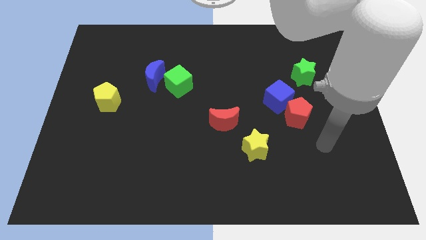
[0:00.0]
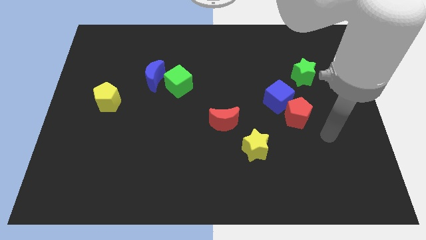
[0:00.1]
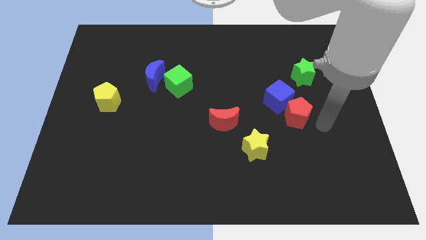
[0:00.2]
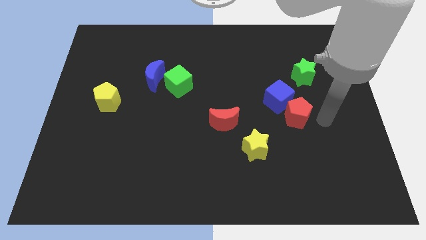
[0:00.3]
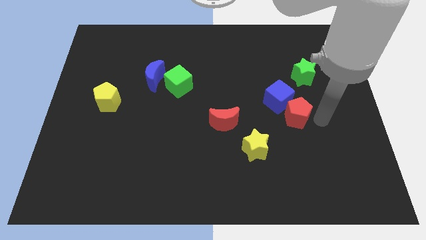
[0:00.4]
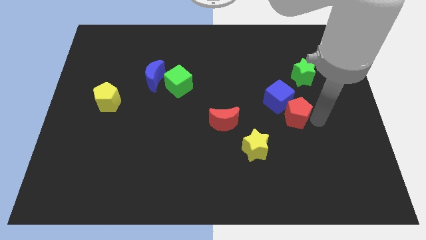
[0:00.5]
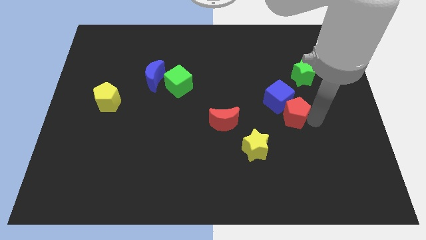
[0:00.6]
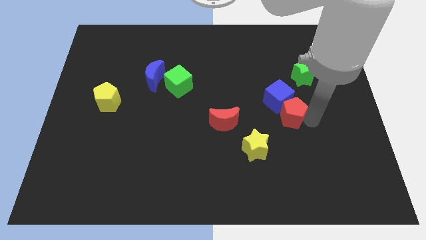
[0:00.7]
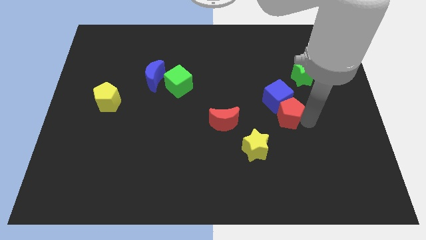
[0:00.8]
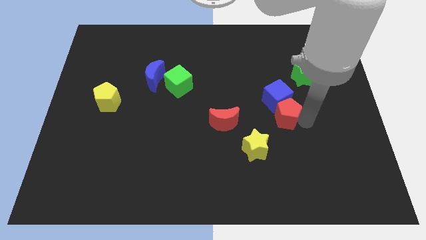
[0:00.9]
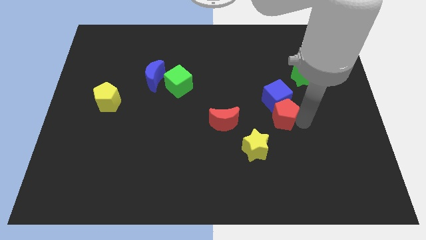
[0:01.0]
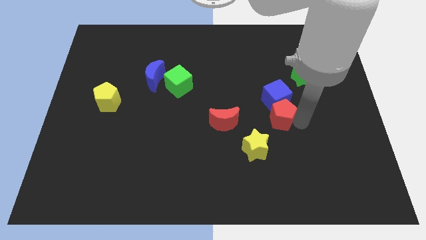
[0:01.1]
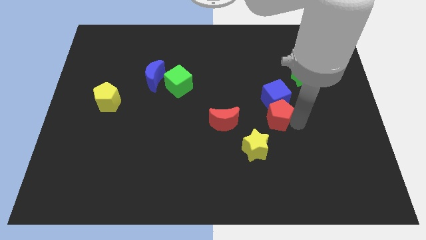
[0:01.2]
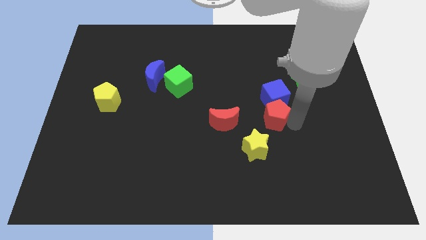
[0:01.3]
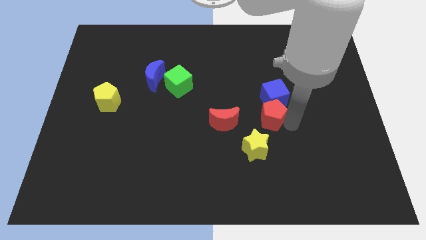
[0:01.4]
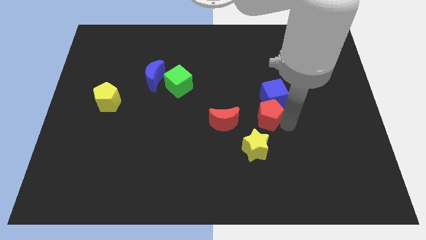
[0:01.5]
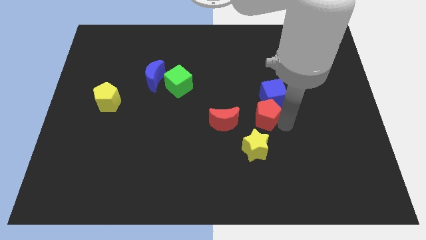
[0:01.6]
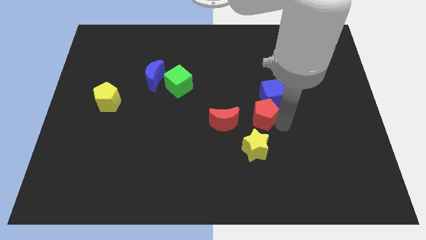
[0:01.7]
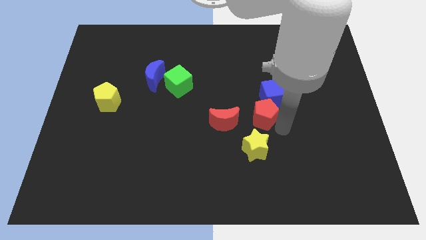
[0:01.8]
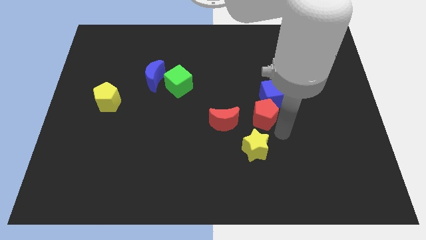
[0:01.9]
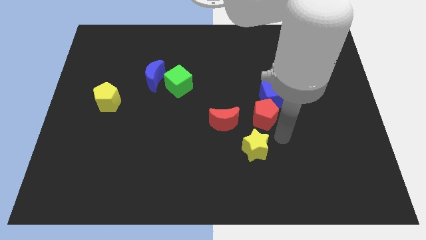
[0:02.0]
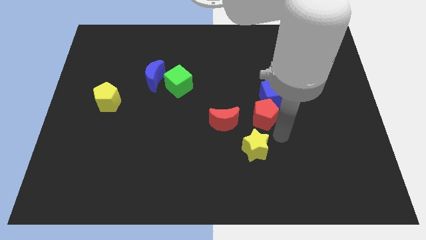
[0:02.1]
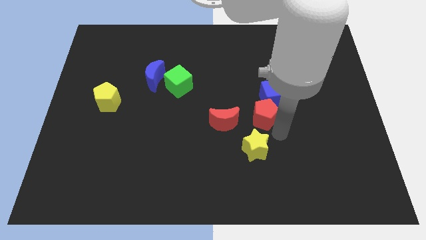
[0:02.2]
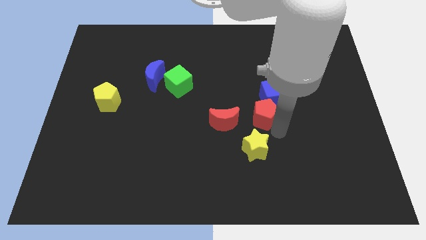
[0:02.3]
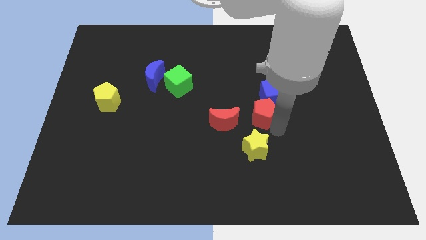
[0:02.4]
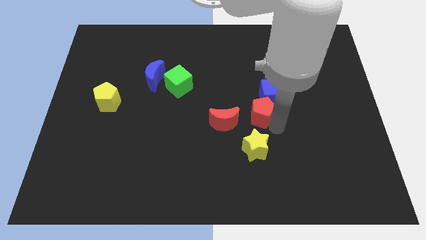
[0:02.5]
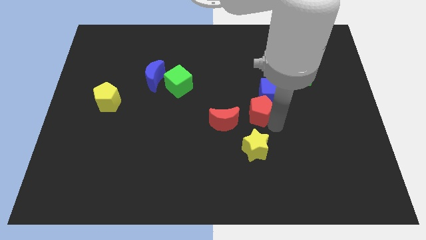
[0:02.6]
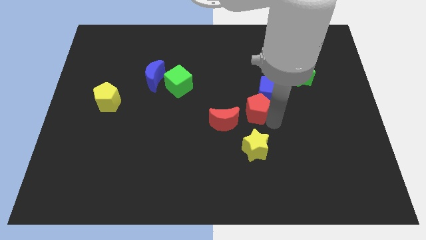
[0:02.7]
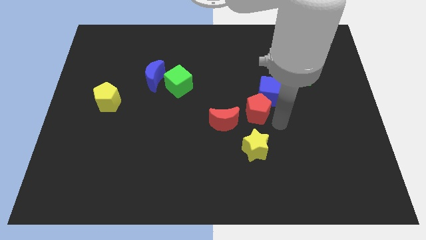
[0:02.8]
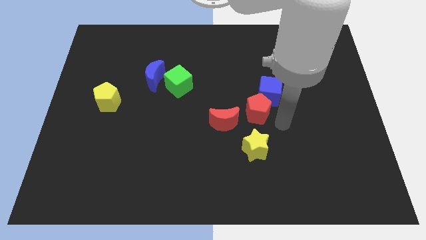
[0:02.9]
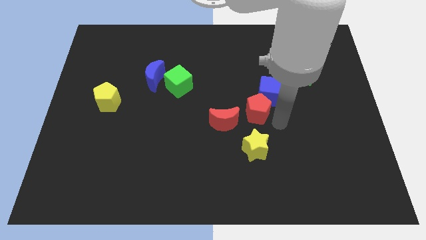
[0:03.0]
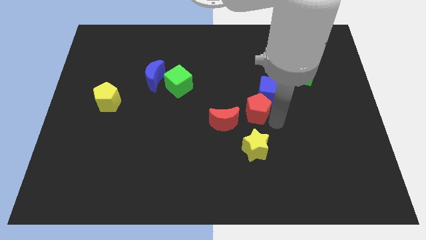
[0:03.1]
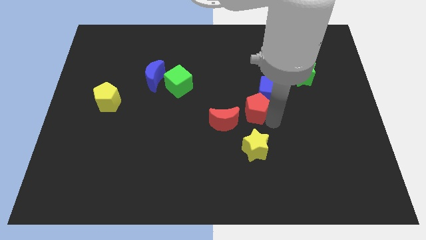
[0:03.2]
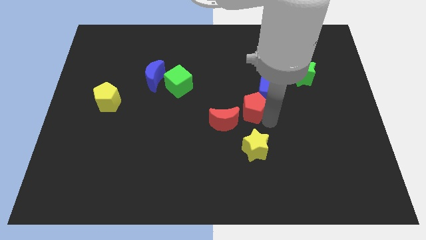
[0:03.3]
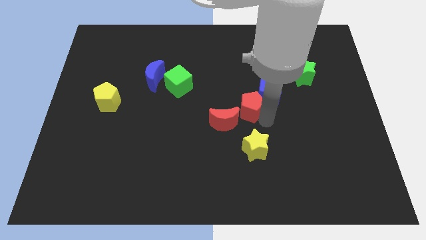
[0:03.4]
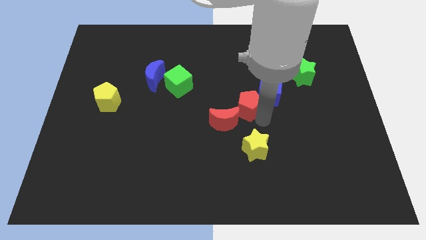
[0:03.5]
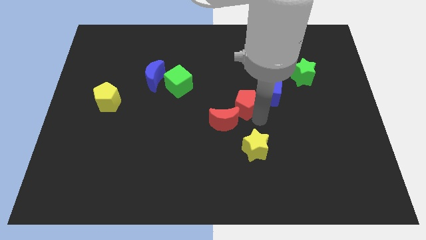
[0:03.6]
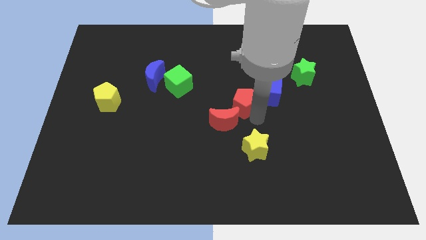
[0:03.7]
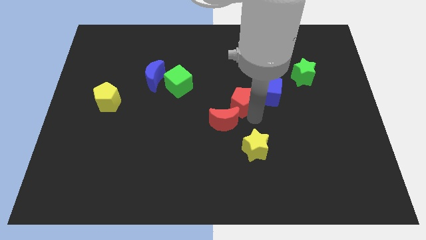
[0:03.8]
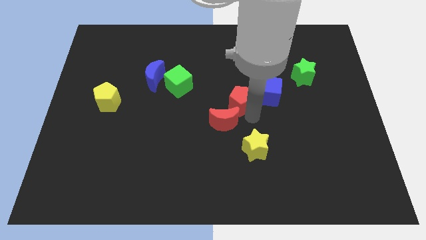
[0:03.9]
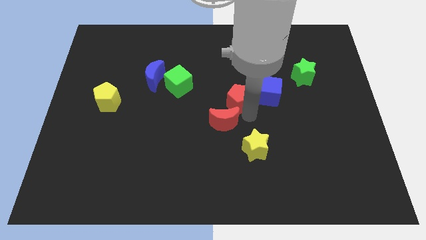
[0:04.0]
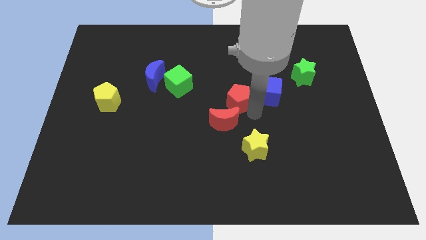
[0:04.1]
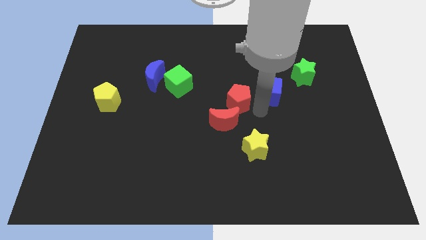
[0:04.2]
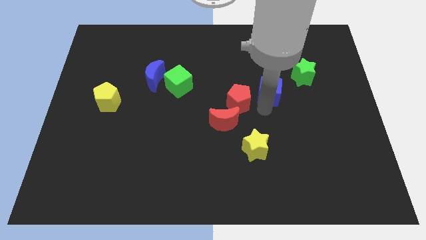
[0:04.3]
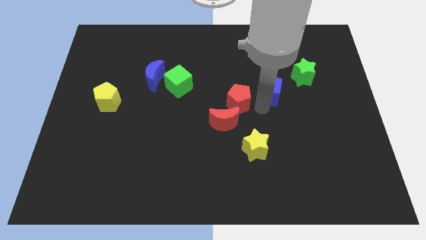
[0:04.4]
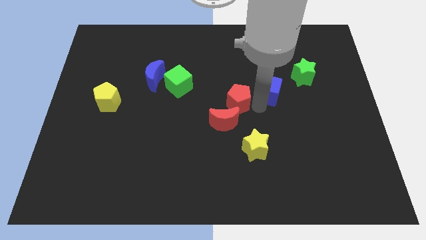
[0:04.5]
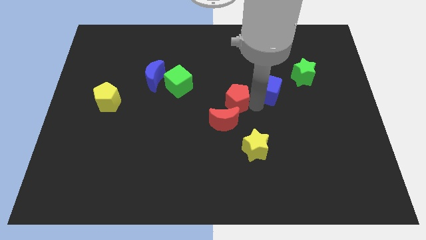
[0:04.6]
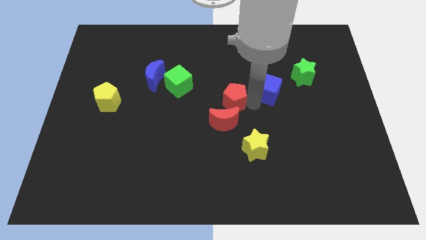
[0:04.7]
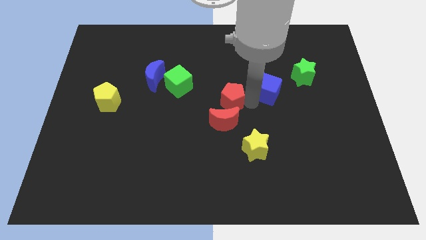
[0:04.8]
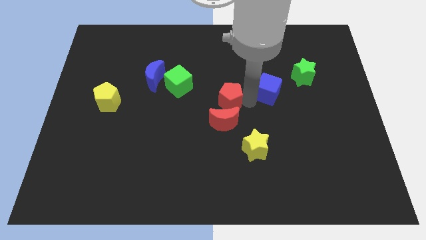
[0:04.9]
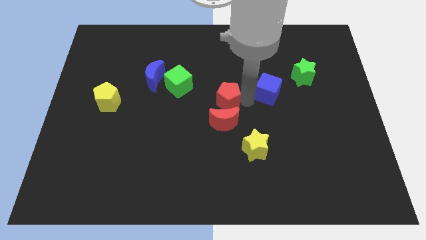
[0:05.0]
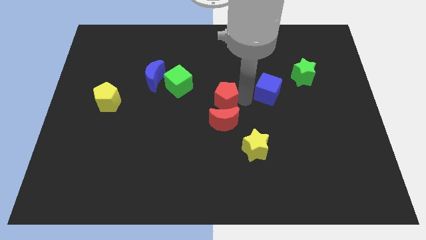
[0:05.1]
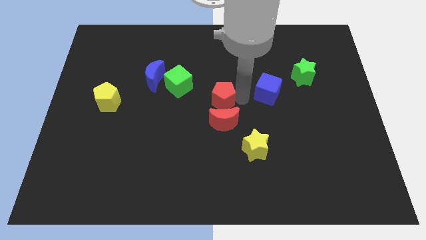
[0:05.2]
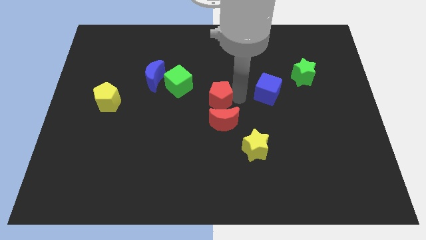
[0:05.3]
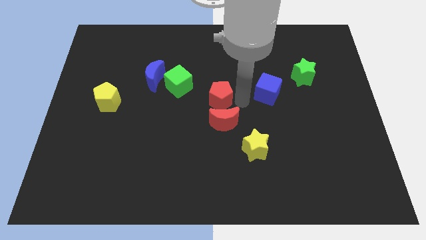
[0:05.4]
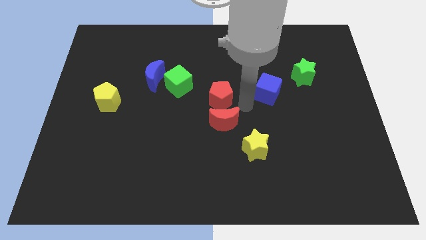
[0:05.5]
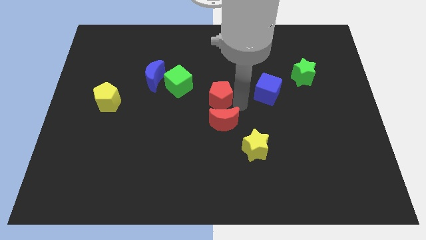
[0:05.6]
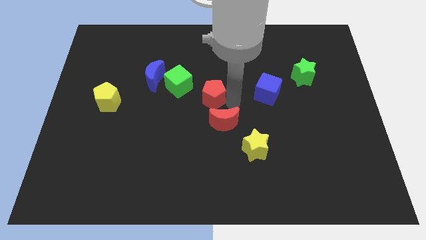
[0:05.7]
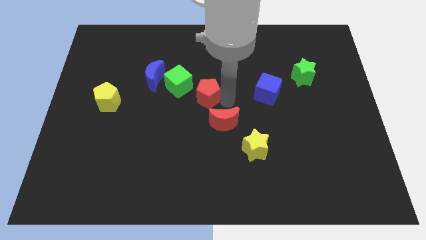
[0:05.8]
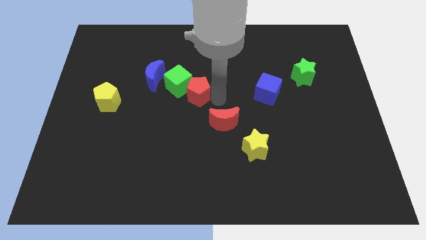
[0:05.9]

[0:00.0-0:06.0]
push the red pentagon next to the green cube

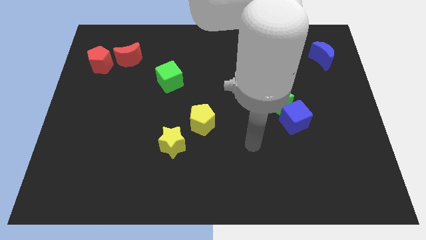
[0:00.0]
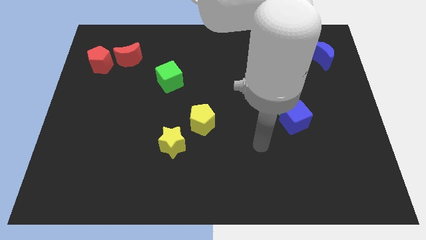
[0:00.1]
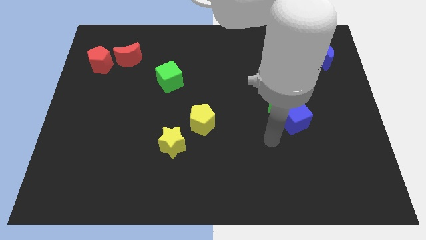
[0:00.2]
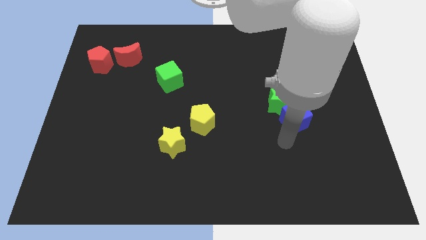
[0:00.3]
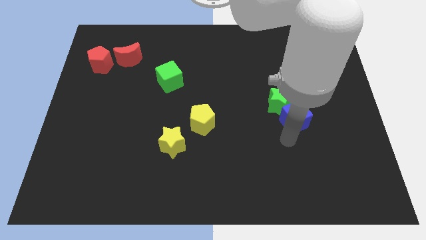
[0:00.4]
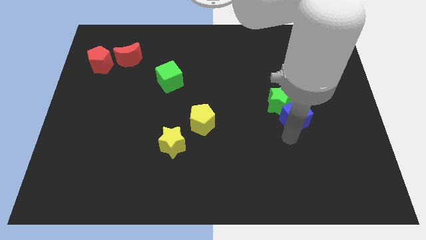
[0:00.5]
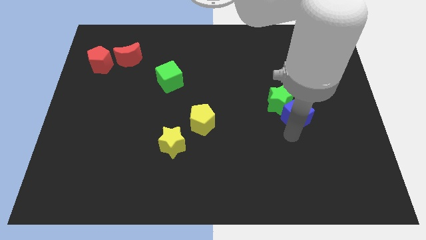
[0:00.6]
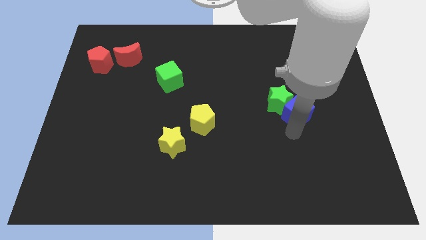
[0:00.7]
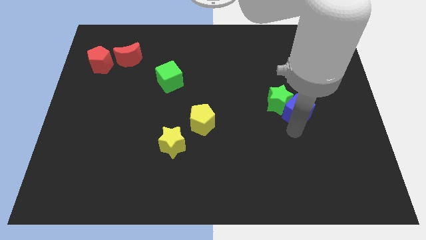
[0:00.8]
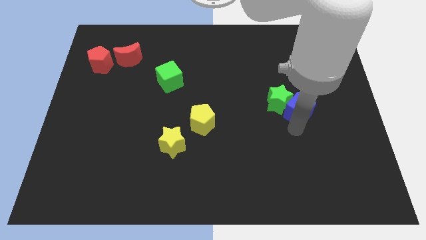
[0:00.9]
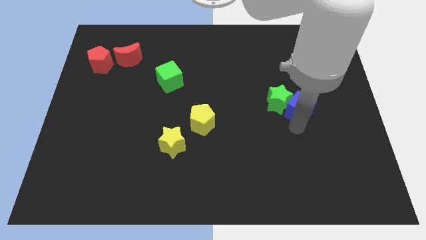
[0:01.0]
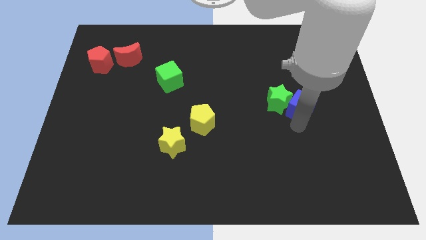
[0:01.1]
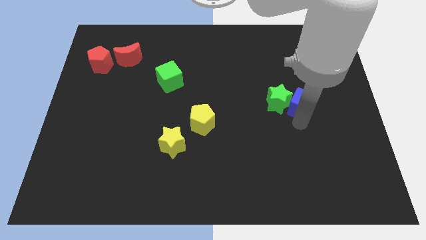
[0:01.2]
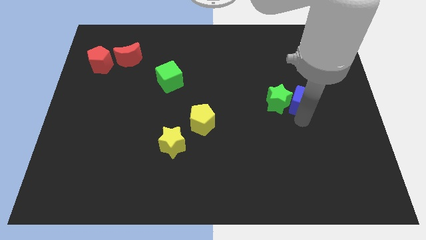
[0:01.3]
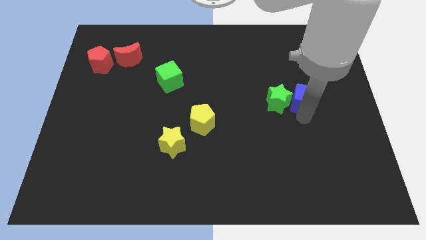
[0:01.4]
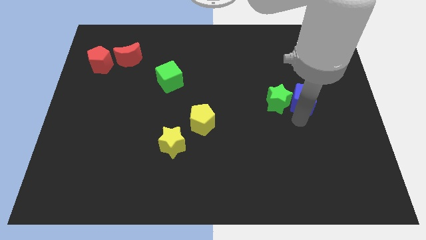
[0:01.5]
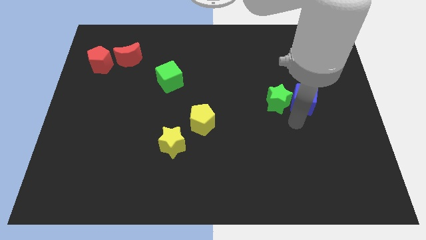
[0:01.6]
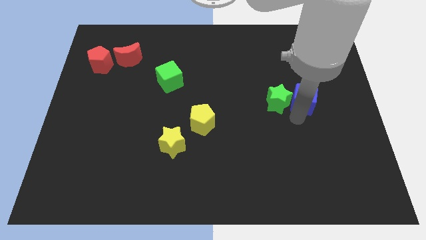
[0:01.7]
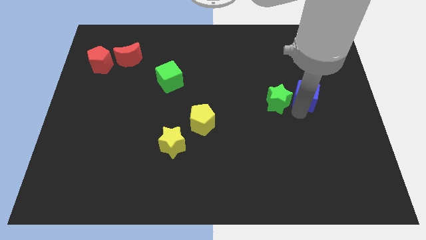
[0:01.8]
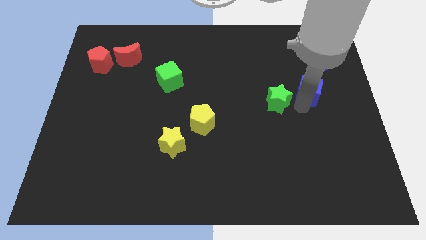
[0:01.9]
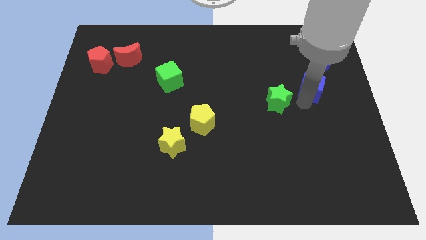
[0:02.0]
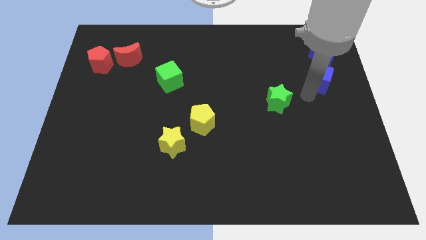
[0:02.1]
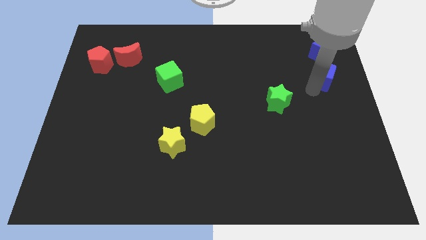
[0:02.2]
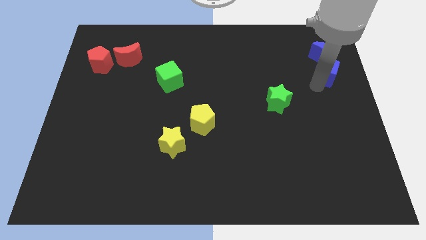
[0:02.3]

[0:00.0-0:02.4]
move the blue cube close to the blue moon
